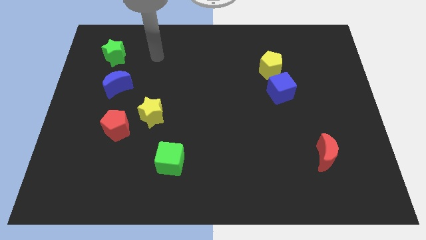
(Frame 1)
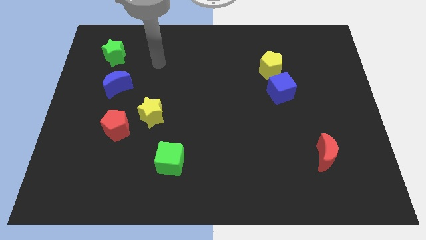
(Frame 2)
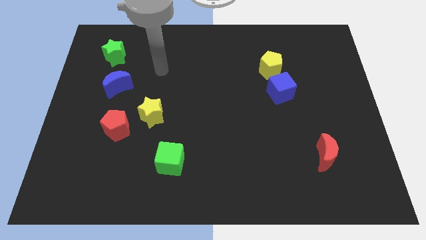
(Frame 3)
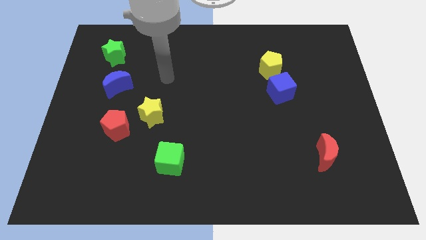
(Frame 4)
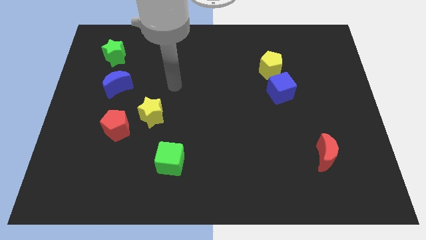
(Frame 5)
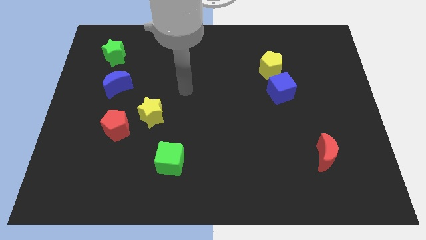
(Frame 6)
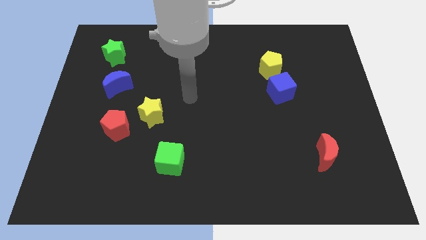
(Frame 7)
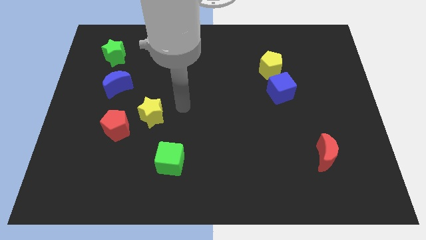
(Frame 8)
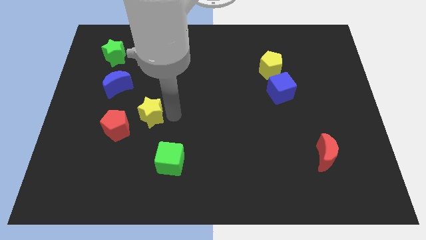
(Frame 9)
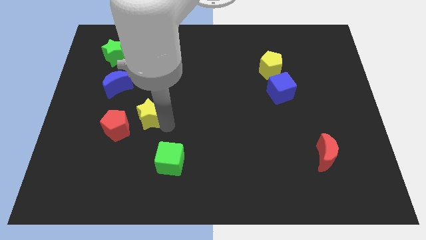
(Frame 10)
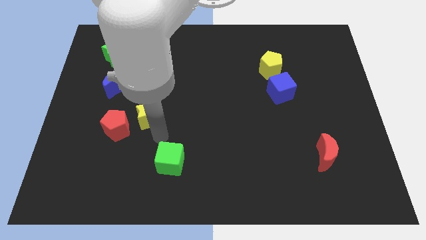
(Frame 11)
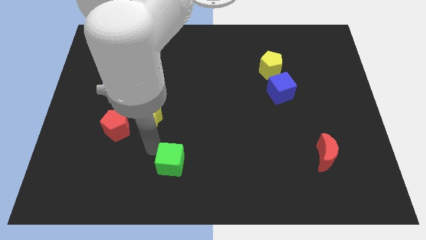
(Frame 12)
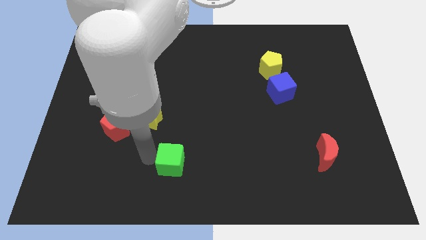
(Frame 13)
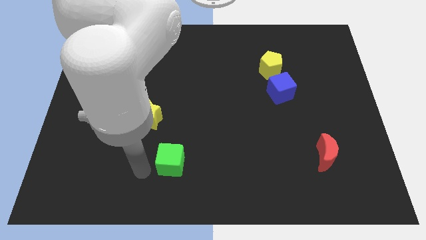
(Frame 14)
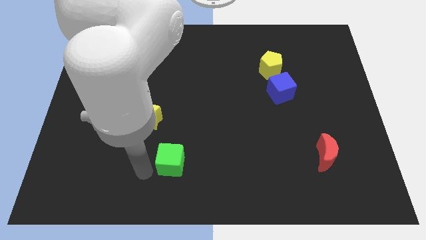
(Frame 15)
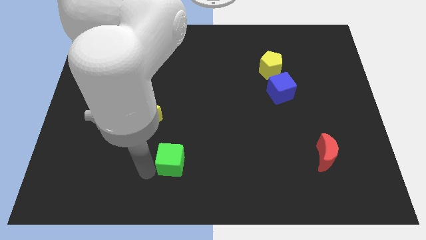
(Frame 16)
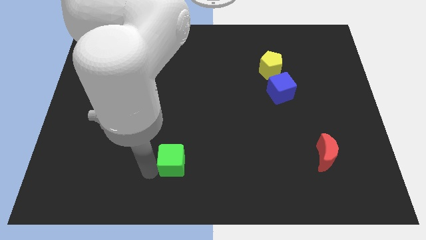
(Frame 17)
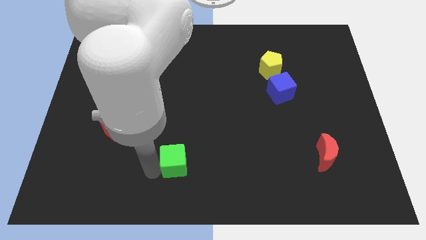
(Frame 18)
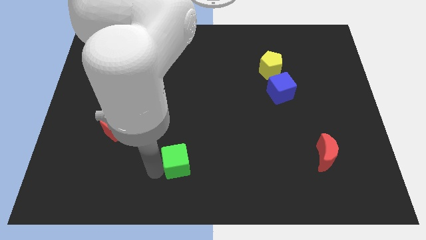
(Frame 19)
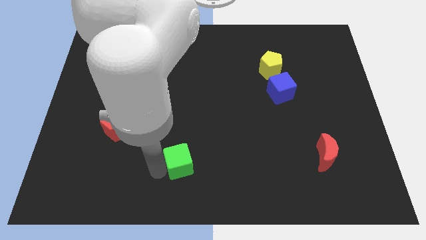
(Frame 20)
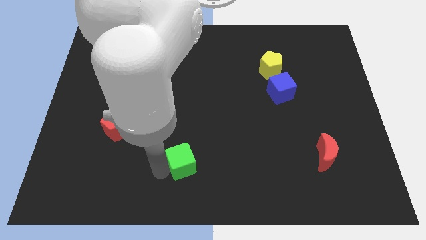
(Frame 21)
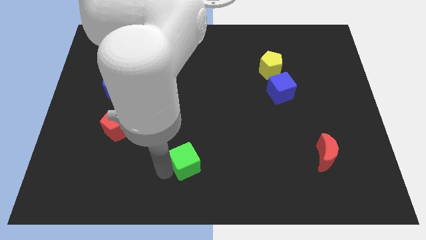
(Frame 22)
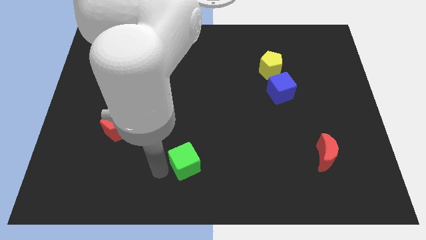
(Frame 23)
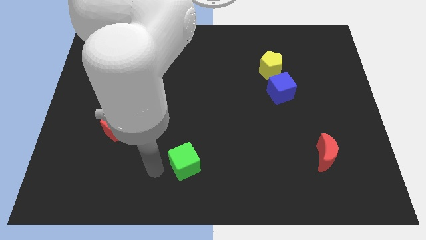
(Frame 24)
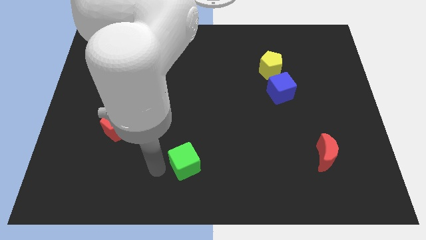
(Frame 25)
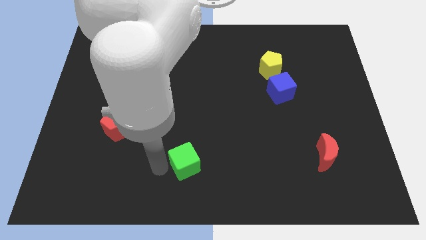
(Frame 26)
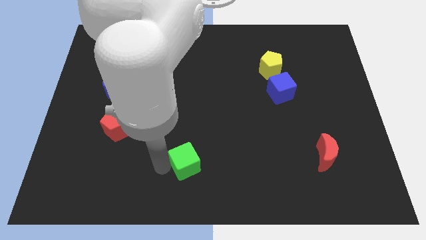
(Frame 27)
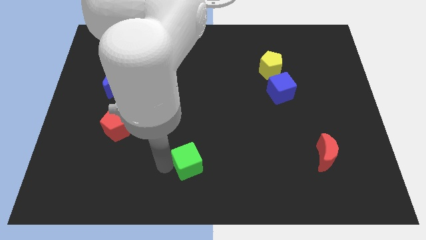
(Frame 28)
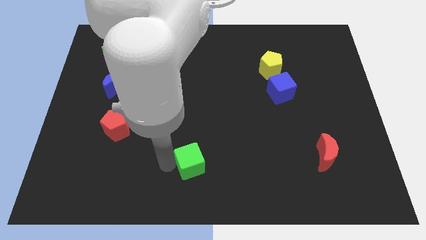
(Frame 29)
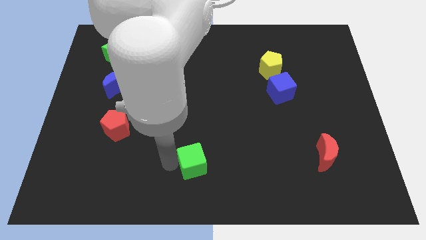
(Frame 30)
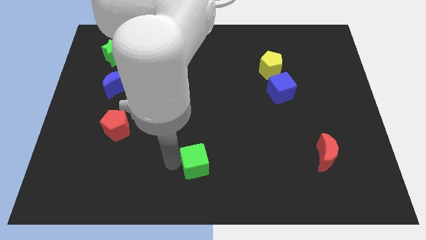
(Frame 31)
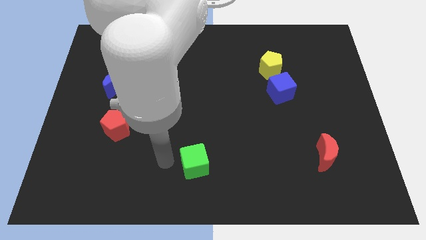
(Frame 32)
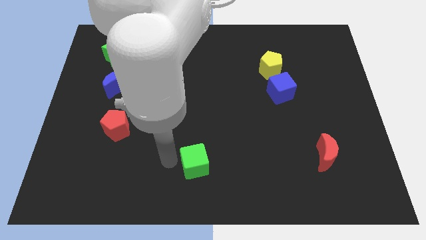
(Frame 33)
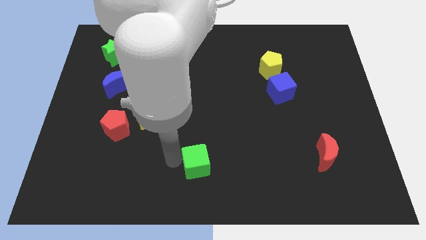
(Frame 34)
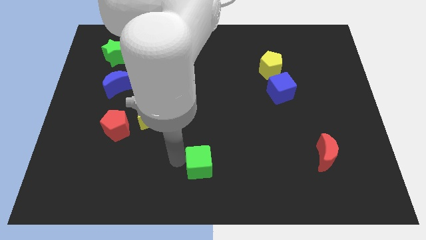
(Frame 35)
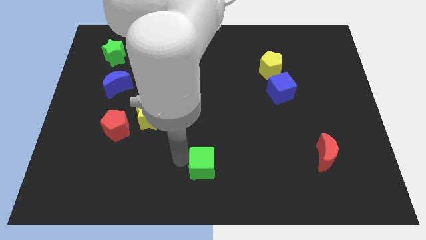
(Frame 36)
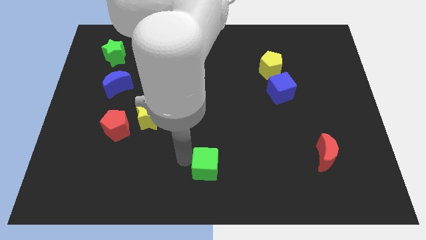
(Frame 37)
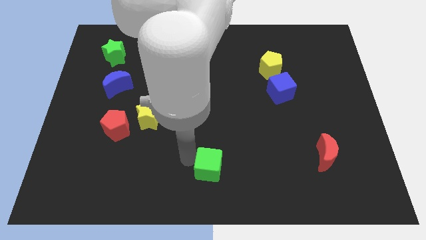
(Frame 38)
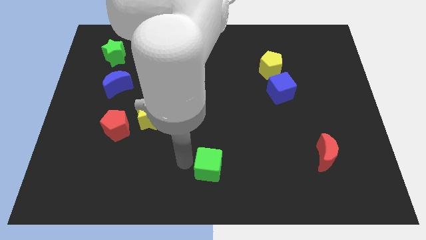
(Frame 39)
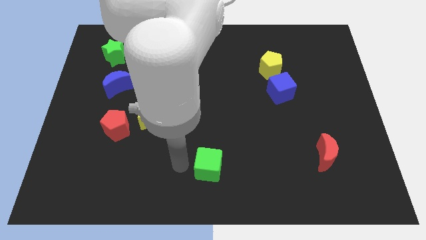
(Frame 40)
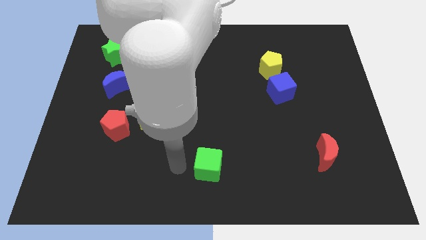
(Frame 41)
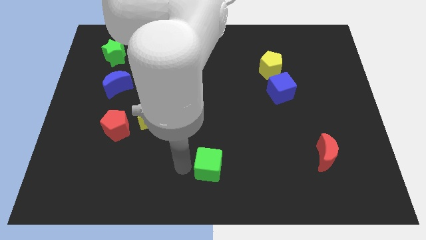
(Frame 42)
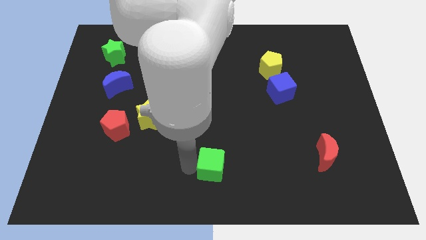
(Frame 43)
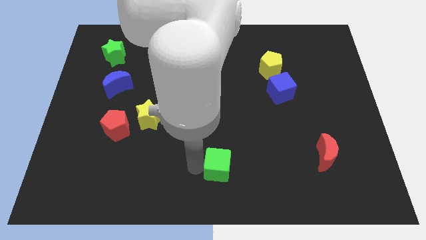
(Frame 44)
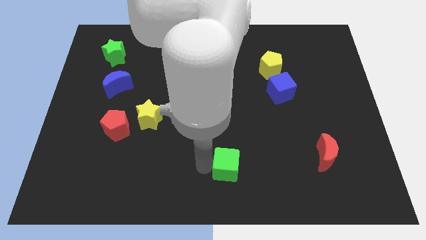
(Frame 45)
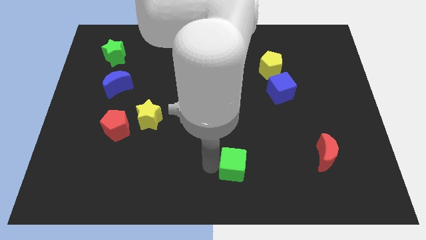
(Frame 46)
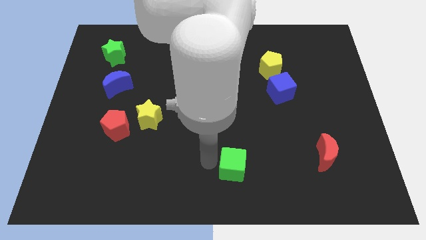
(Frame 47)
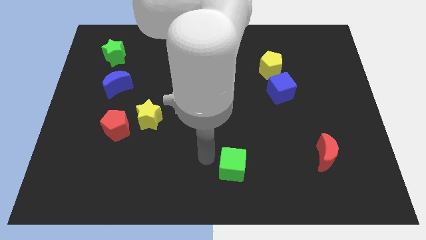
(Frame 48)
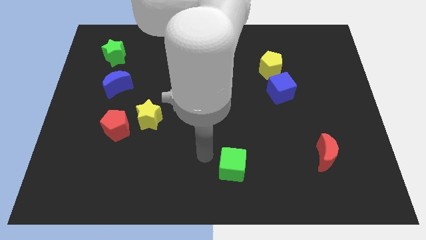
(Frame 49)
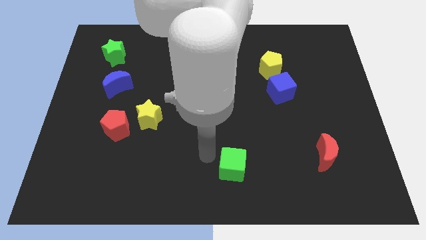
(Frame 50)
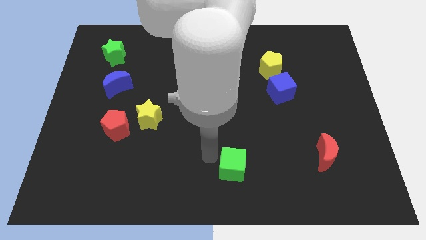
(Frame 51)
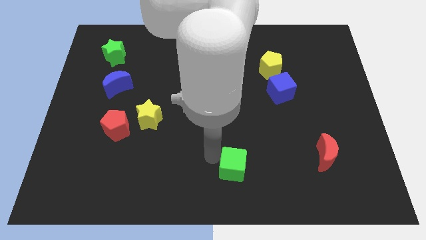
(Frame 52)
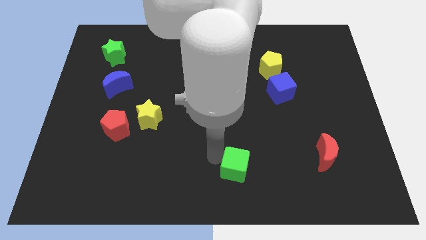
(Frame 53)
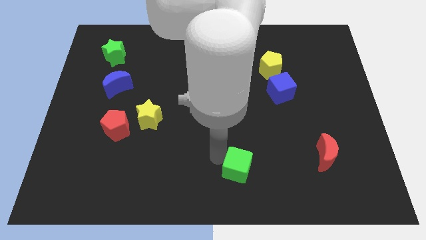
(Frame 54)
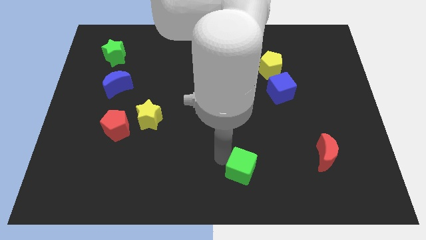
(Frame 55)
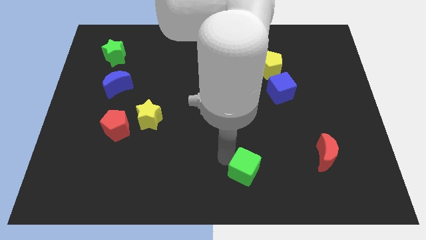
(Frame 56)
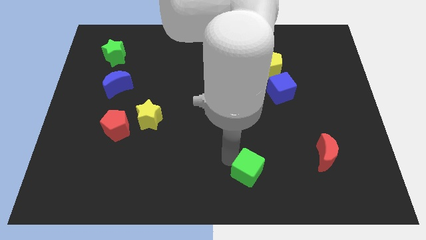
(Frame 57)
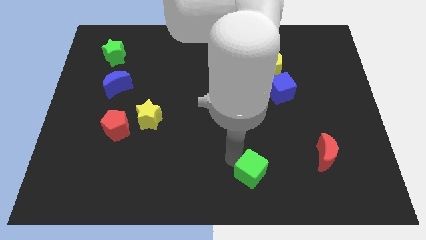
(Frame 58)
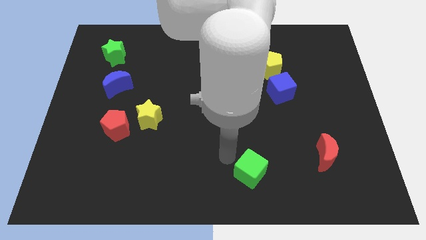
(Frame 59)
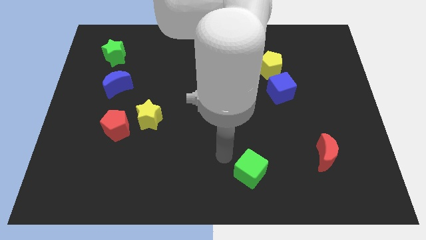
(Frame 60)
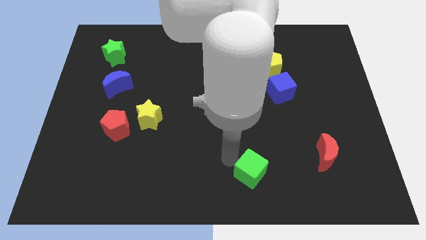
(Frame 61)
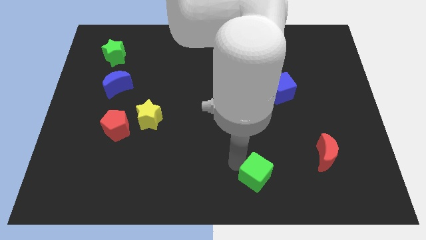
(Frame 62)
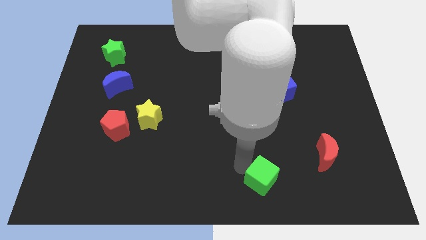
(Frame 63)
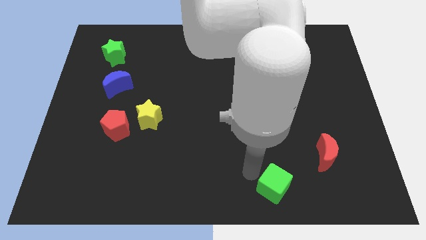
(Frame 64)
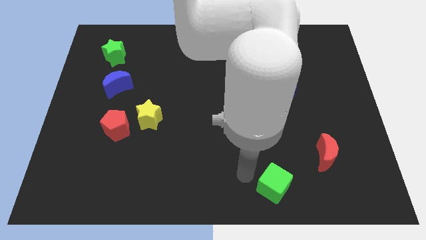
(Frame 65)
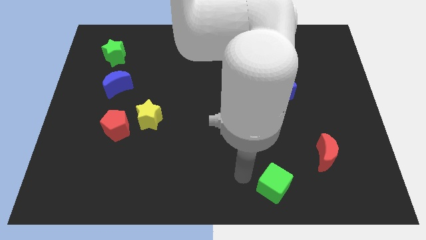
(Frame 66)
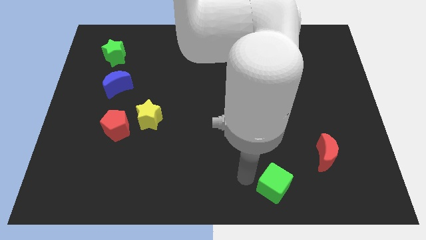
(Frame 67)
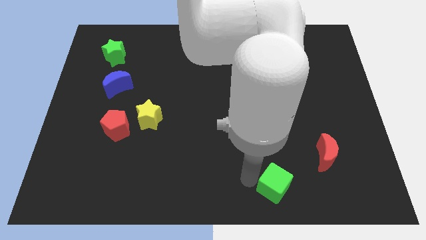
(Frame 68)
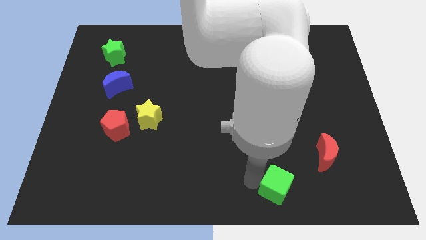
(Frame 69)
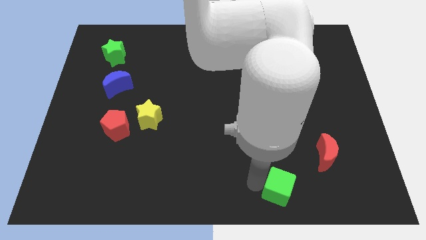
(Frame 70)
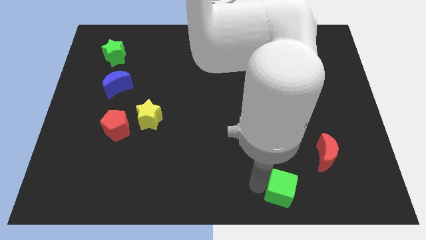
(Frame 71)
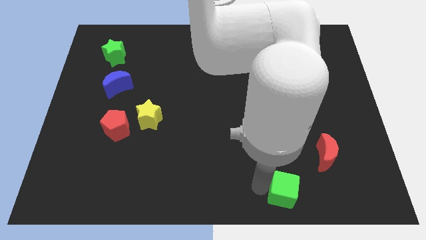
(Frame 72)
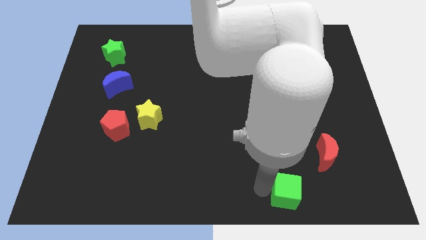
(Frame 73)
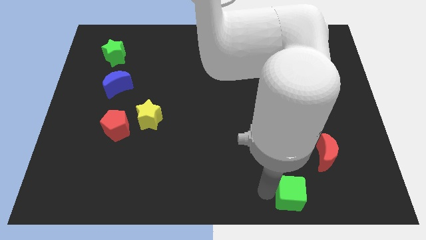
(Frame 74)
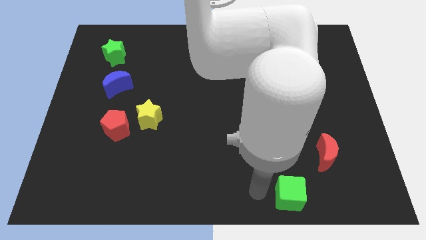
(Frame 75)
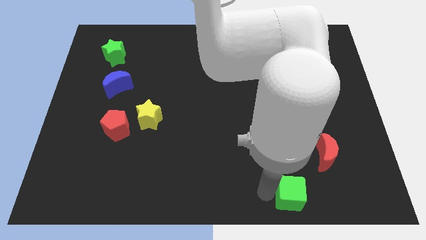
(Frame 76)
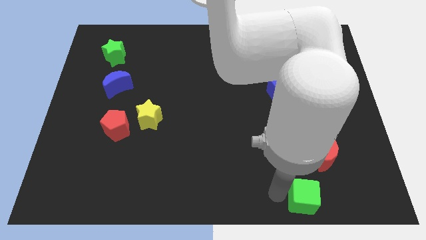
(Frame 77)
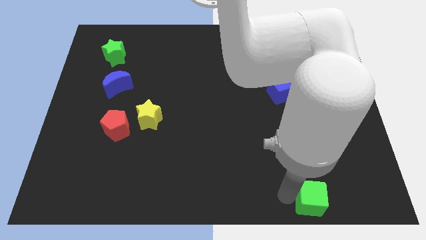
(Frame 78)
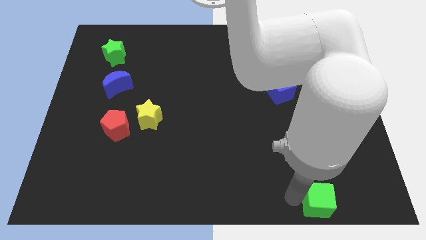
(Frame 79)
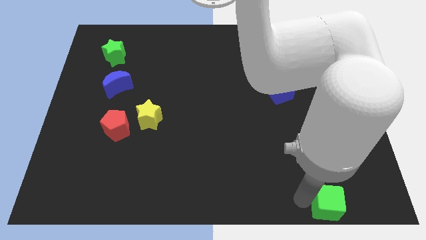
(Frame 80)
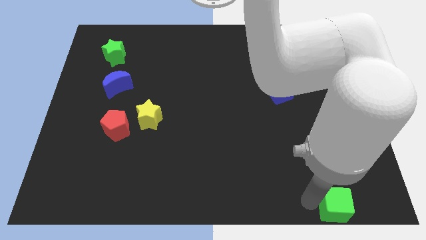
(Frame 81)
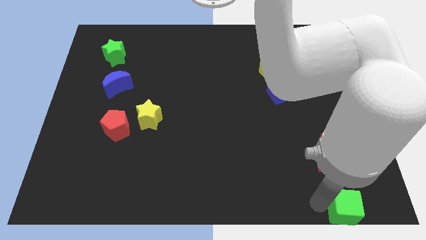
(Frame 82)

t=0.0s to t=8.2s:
put the green cube to the bottom right corner
